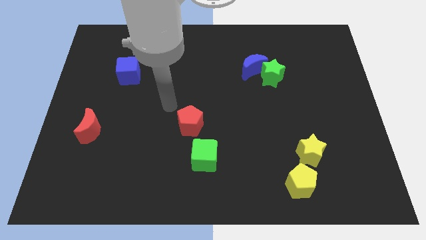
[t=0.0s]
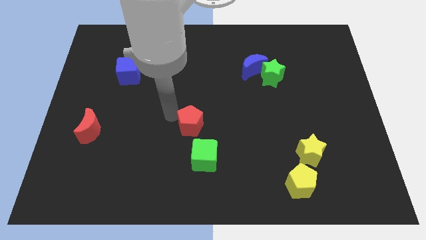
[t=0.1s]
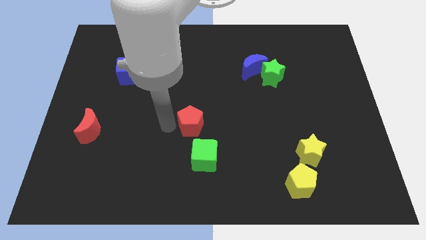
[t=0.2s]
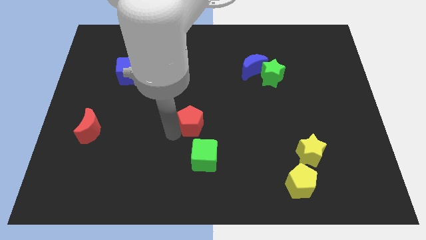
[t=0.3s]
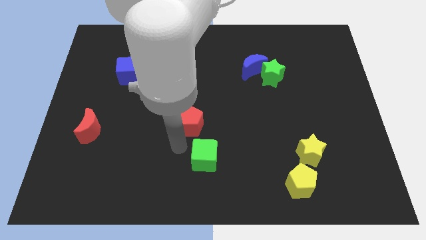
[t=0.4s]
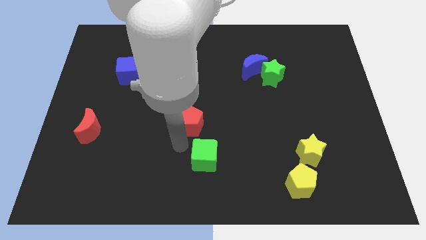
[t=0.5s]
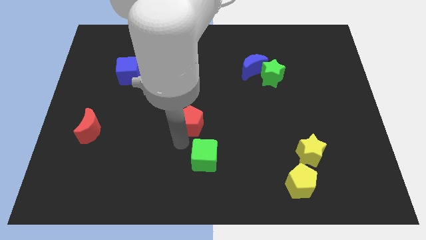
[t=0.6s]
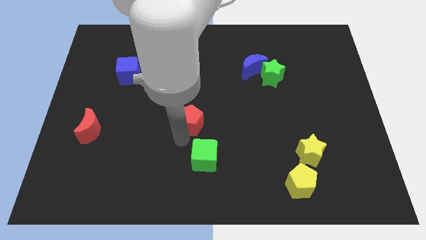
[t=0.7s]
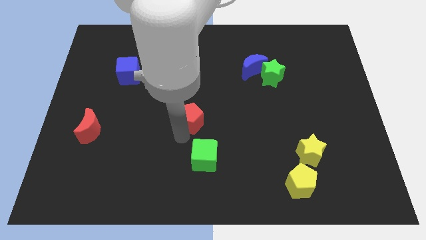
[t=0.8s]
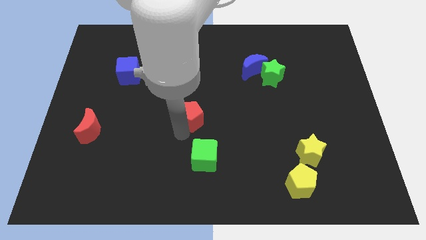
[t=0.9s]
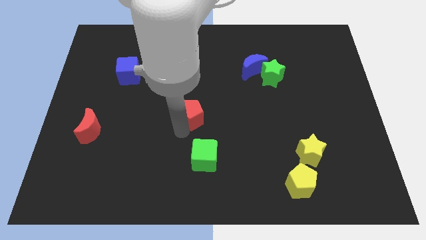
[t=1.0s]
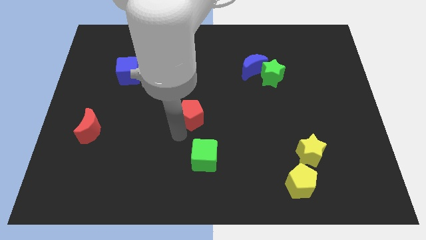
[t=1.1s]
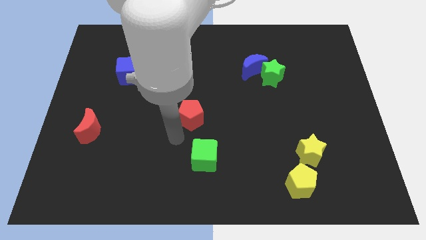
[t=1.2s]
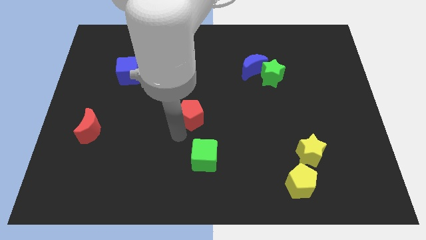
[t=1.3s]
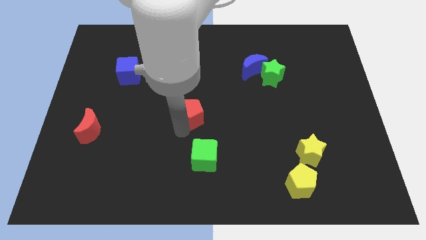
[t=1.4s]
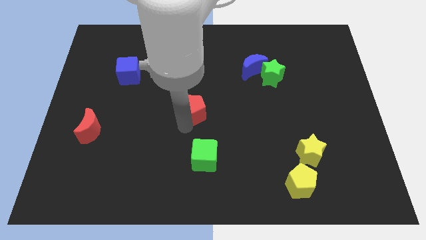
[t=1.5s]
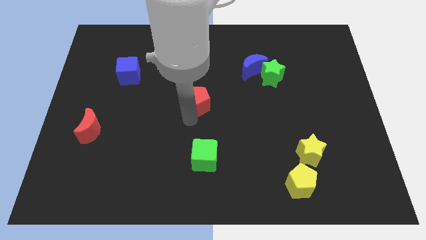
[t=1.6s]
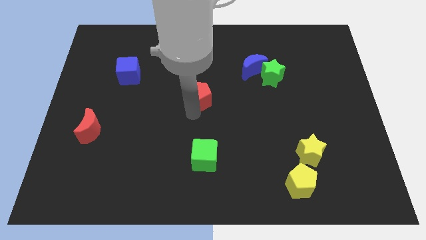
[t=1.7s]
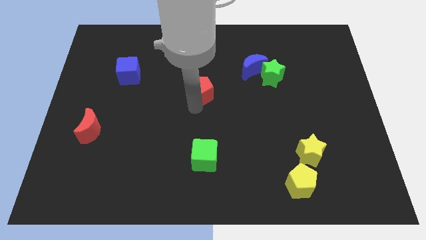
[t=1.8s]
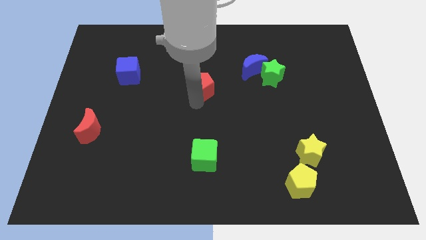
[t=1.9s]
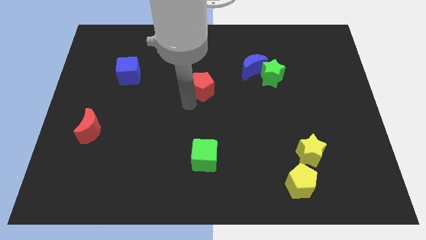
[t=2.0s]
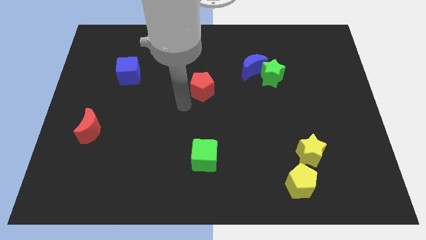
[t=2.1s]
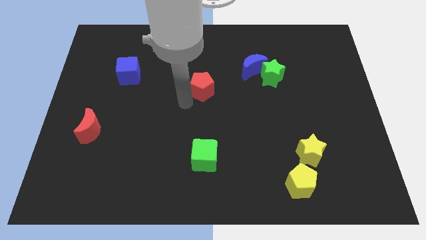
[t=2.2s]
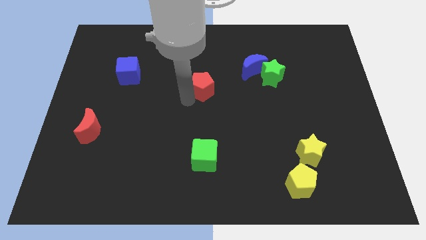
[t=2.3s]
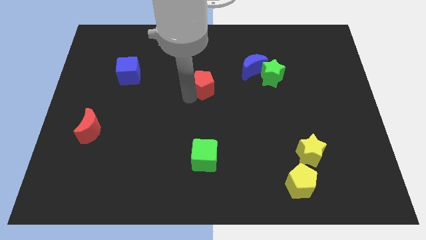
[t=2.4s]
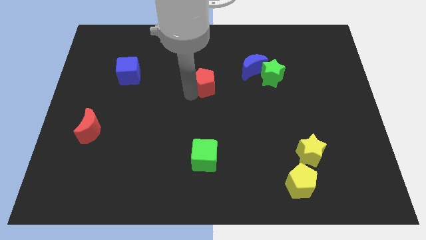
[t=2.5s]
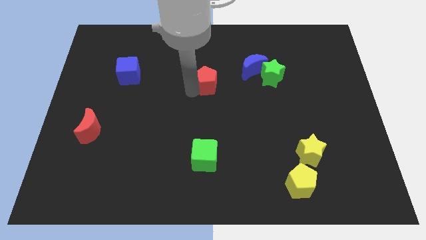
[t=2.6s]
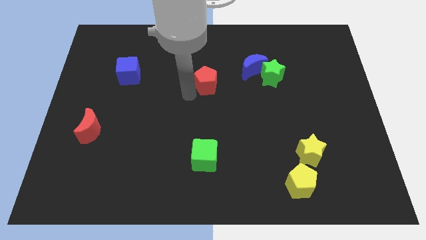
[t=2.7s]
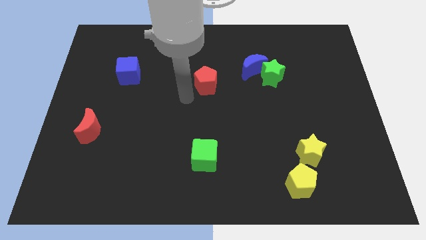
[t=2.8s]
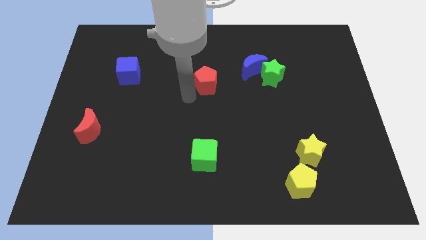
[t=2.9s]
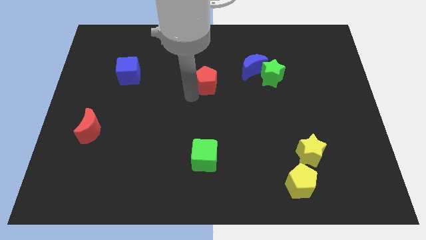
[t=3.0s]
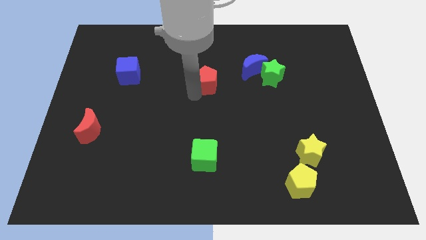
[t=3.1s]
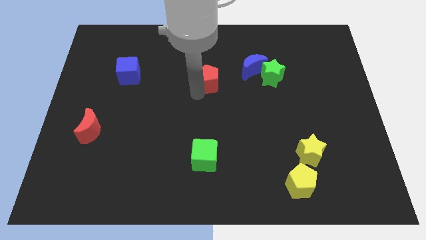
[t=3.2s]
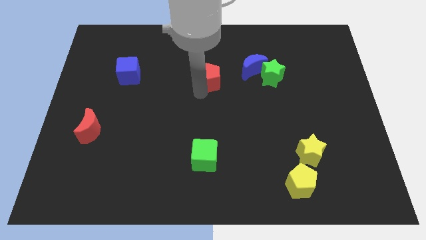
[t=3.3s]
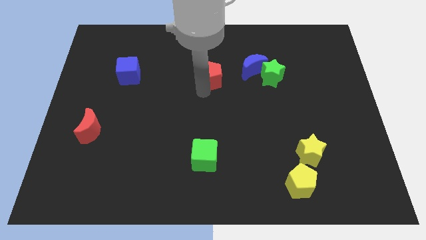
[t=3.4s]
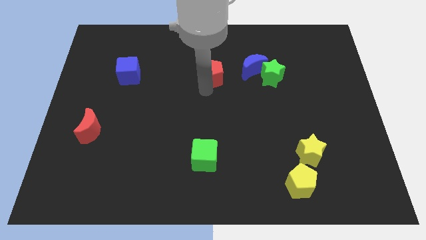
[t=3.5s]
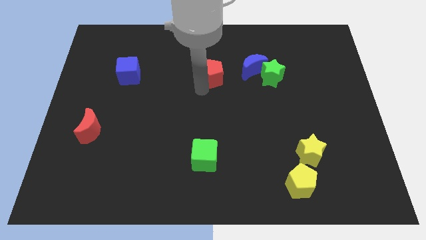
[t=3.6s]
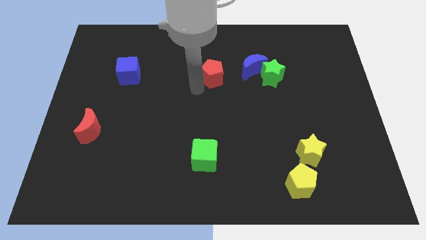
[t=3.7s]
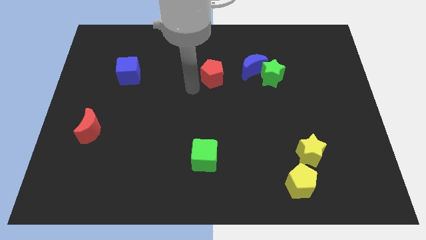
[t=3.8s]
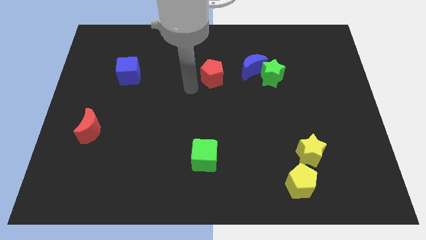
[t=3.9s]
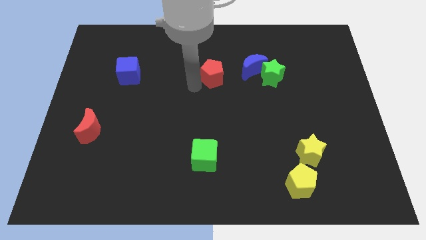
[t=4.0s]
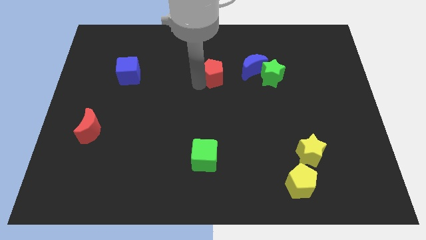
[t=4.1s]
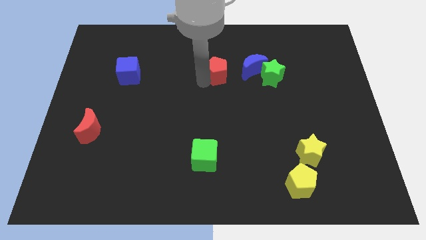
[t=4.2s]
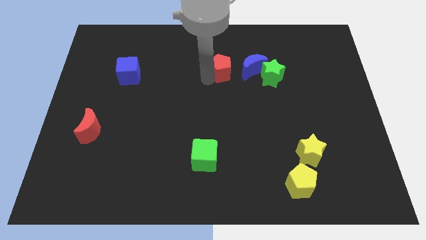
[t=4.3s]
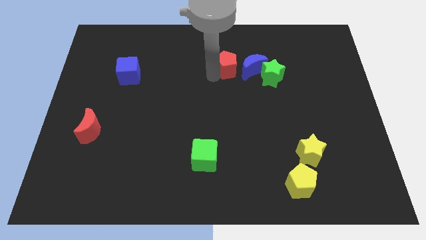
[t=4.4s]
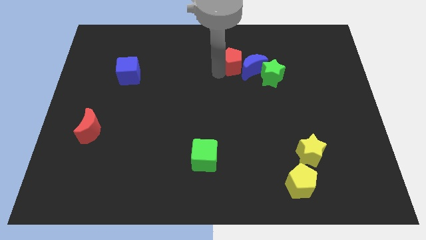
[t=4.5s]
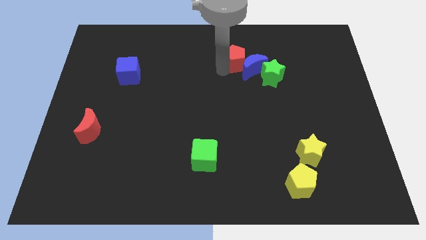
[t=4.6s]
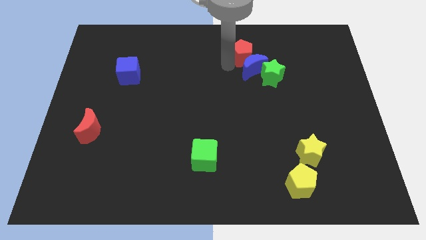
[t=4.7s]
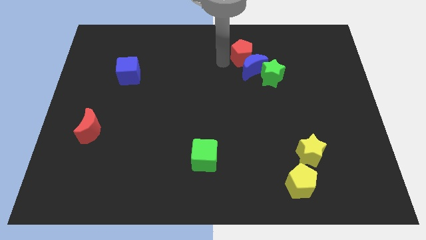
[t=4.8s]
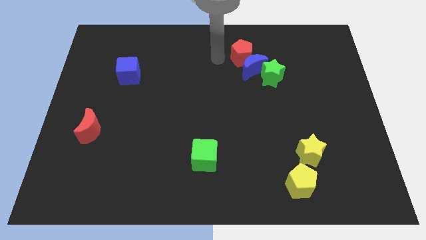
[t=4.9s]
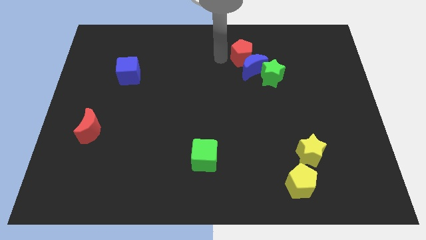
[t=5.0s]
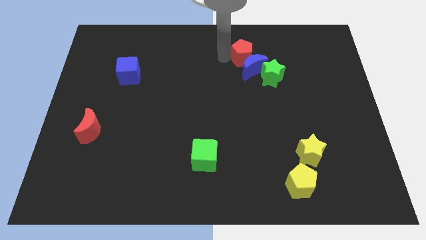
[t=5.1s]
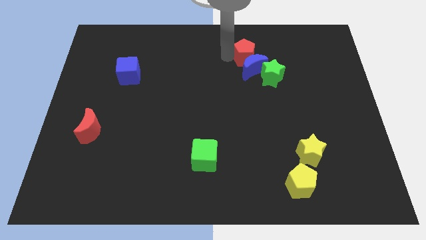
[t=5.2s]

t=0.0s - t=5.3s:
slide the red pentagon to the top right of the blue moon

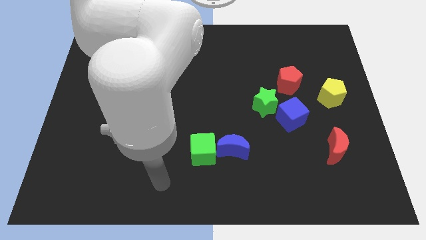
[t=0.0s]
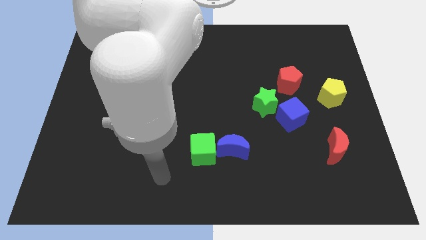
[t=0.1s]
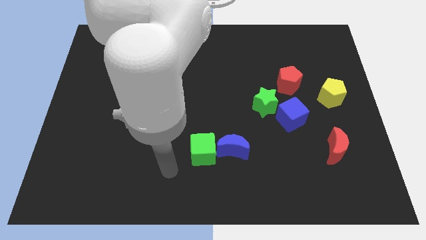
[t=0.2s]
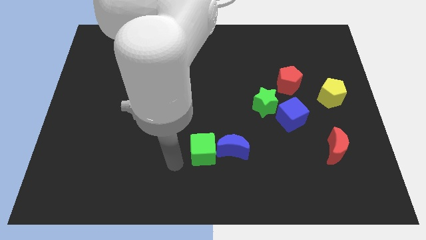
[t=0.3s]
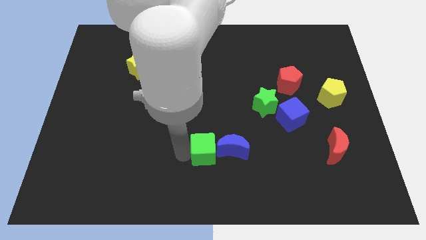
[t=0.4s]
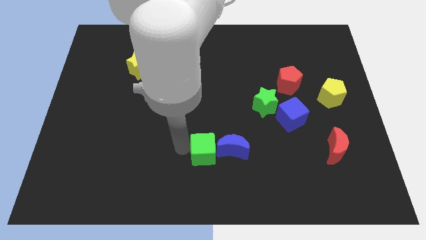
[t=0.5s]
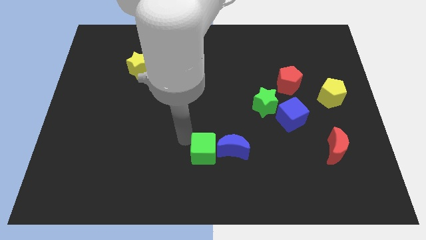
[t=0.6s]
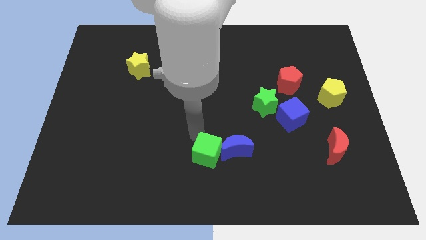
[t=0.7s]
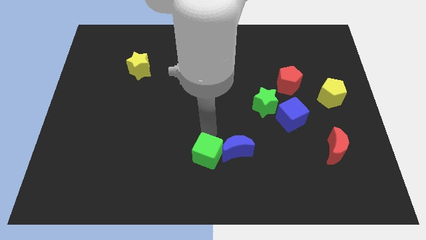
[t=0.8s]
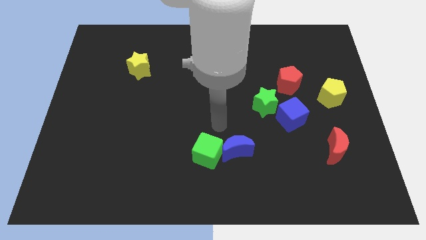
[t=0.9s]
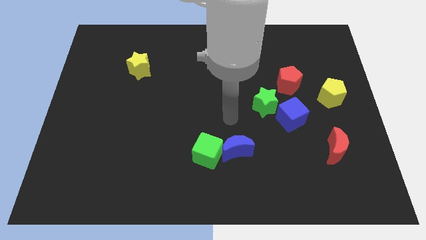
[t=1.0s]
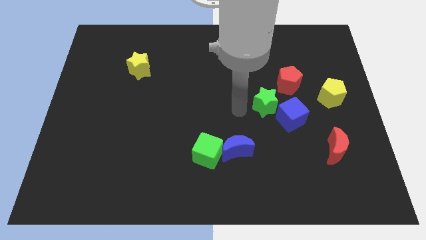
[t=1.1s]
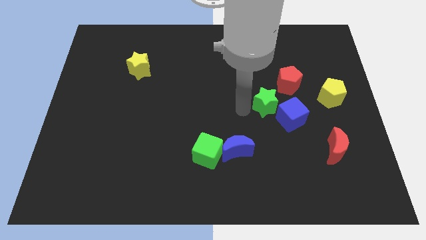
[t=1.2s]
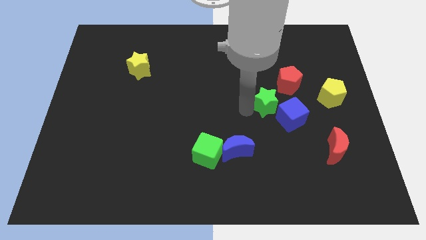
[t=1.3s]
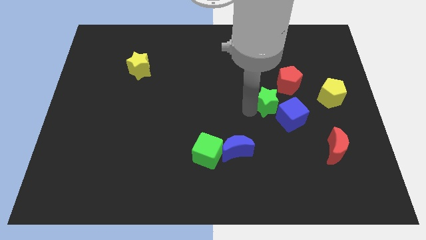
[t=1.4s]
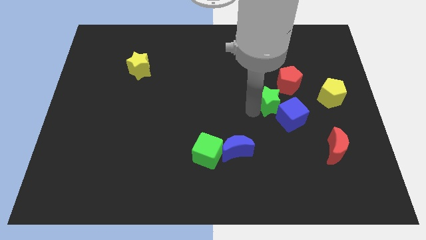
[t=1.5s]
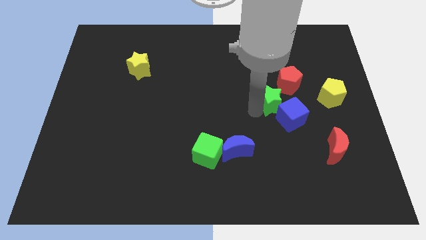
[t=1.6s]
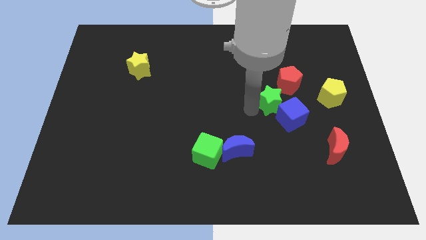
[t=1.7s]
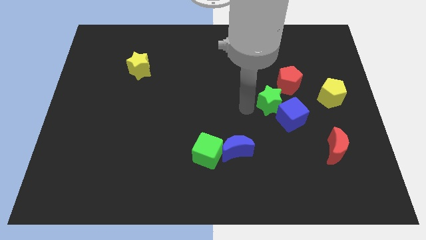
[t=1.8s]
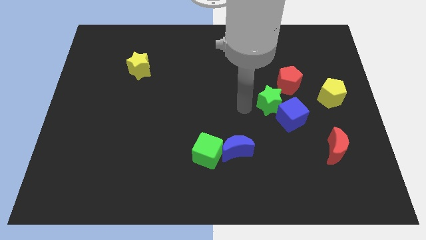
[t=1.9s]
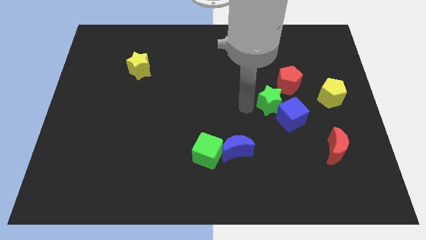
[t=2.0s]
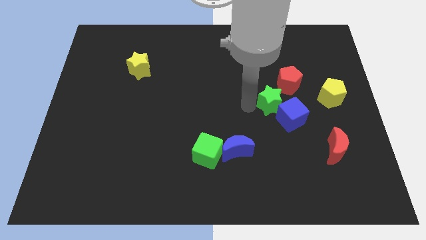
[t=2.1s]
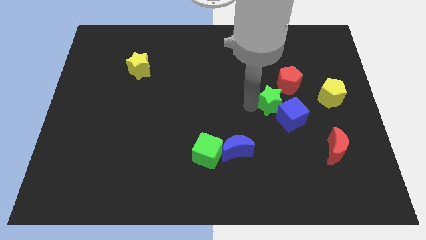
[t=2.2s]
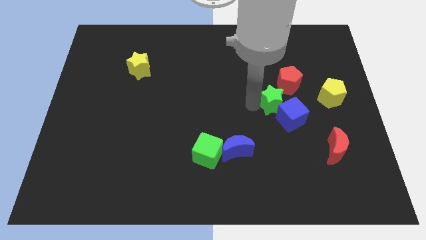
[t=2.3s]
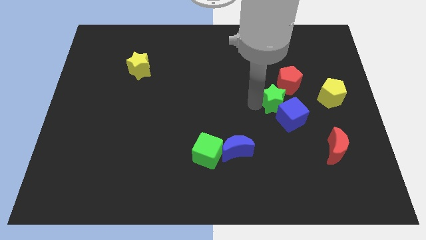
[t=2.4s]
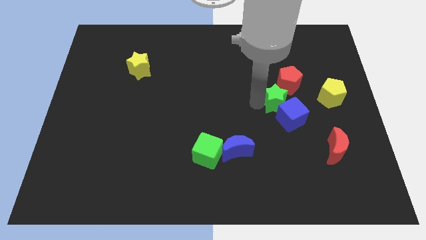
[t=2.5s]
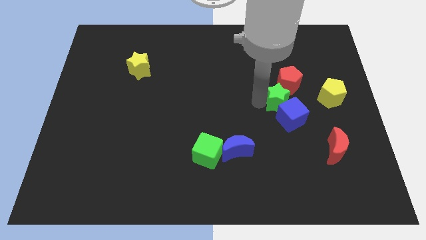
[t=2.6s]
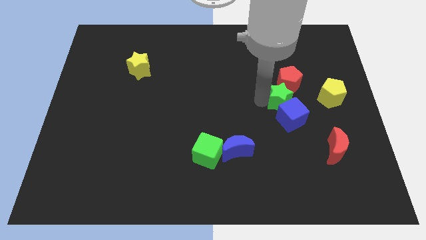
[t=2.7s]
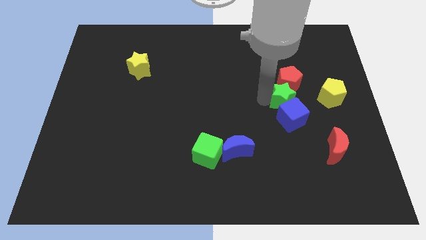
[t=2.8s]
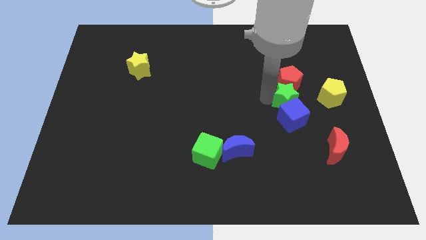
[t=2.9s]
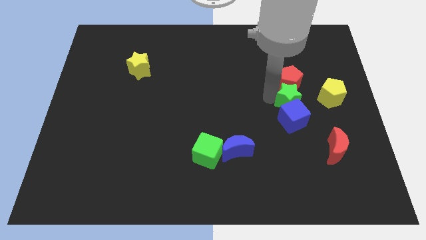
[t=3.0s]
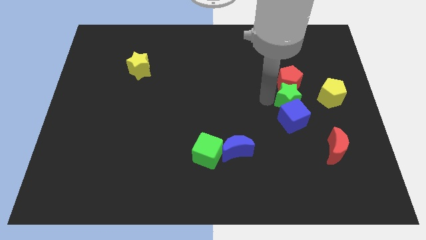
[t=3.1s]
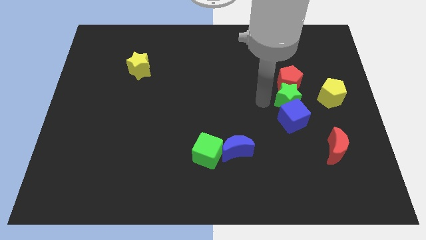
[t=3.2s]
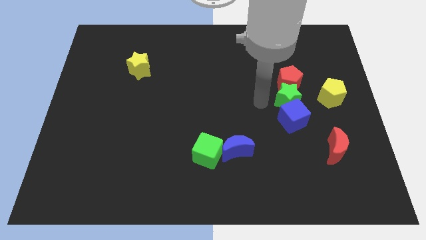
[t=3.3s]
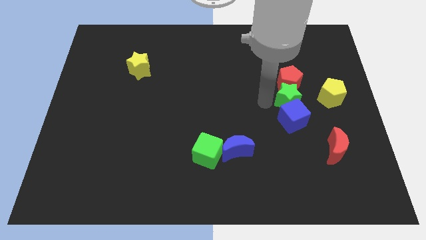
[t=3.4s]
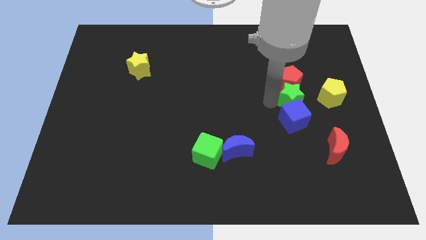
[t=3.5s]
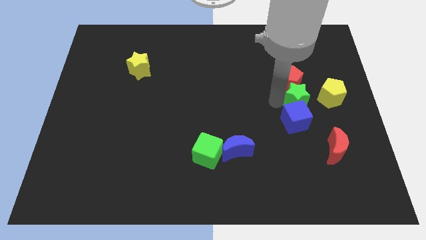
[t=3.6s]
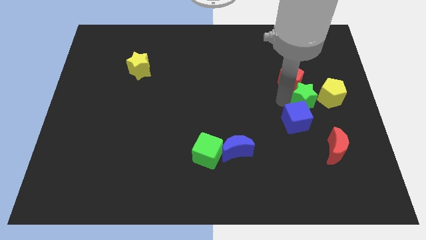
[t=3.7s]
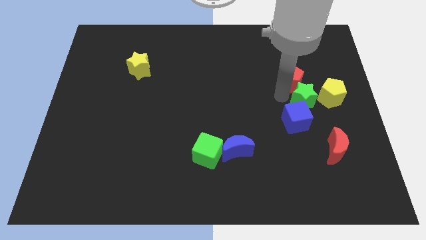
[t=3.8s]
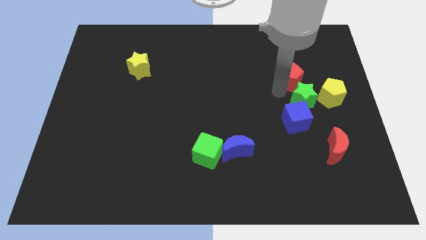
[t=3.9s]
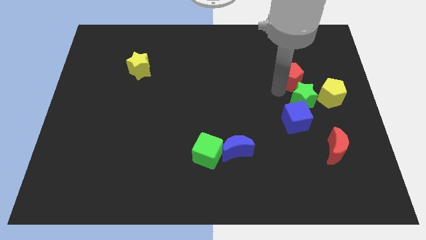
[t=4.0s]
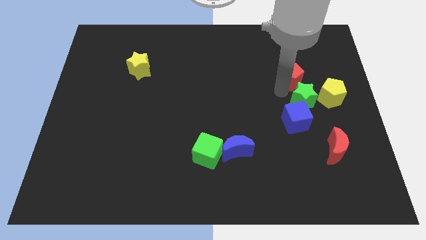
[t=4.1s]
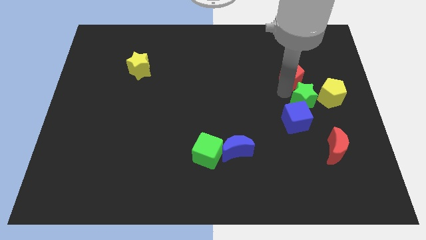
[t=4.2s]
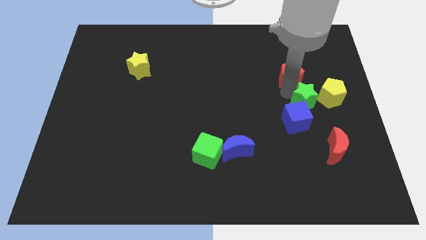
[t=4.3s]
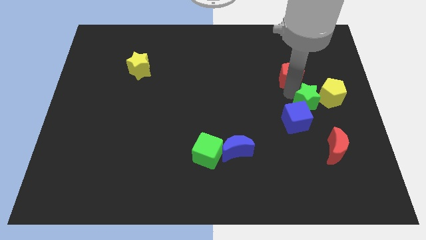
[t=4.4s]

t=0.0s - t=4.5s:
slide the green star above the red moon
